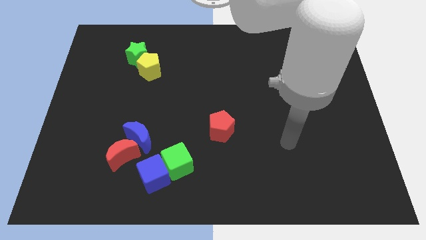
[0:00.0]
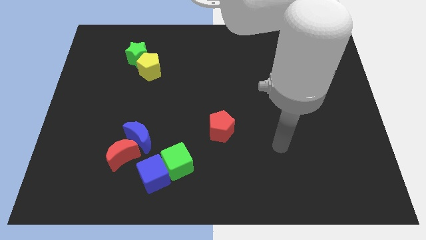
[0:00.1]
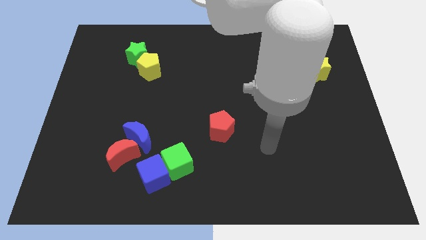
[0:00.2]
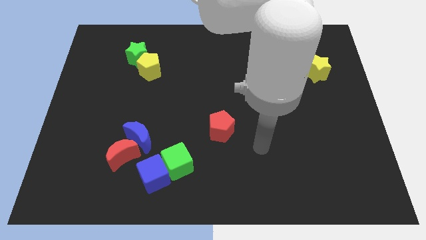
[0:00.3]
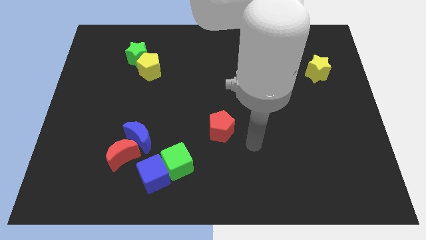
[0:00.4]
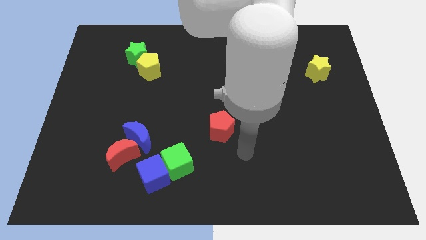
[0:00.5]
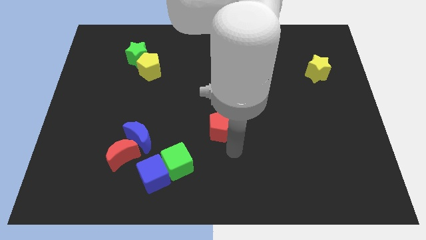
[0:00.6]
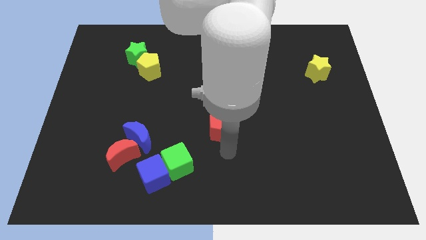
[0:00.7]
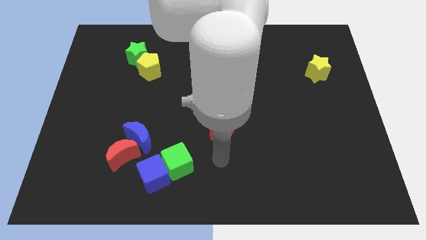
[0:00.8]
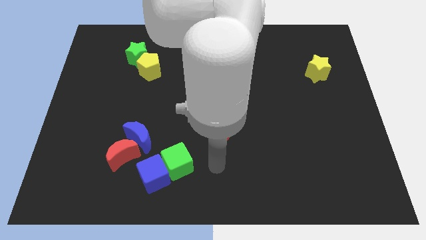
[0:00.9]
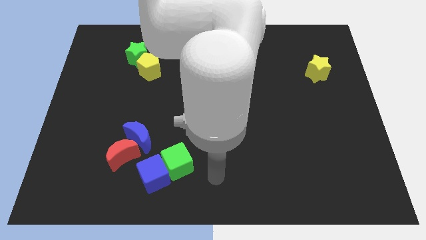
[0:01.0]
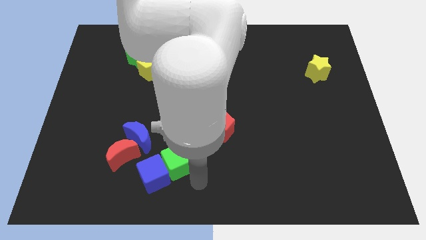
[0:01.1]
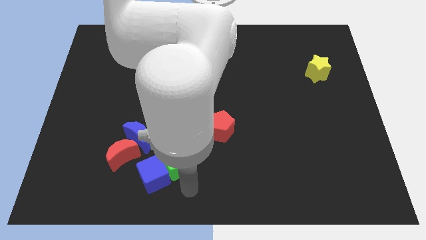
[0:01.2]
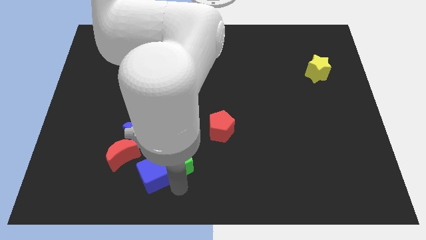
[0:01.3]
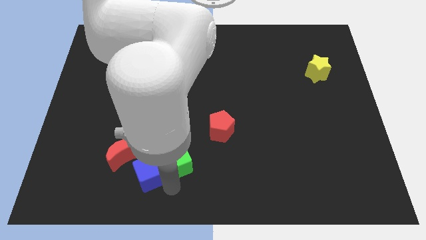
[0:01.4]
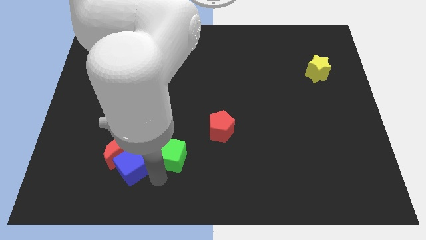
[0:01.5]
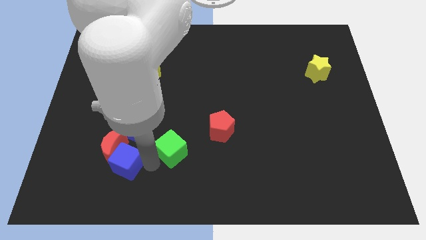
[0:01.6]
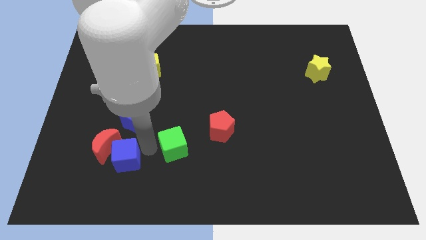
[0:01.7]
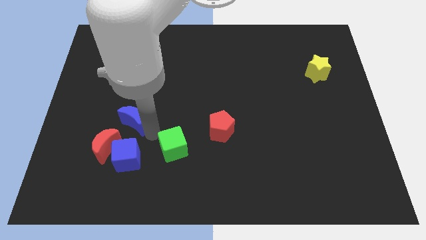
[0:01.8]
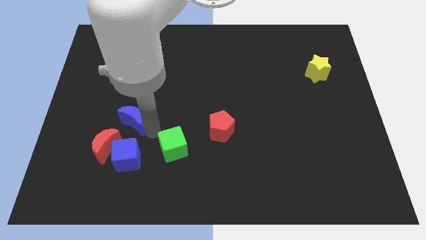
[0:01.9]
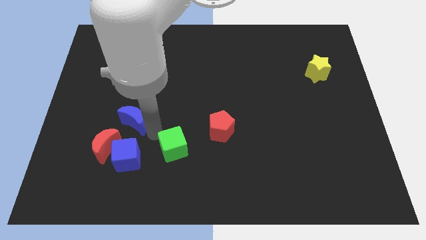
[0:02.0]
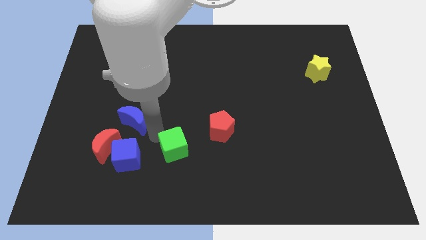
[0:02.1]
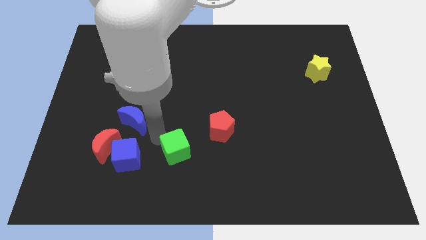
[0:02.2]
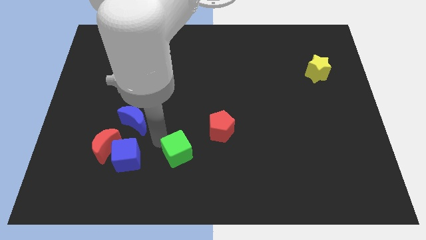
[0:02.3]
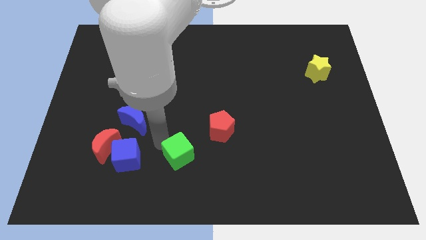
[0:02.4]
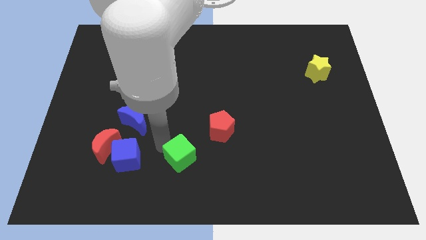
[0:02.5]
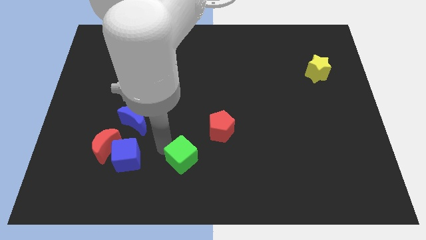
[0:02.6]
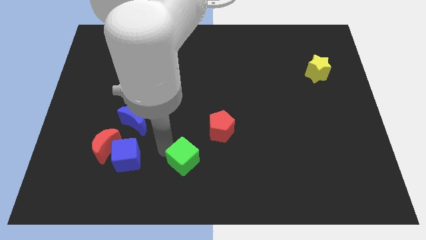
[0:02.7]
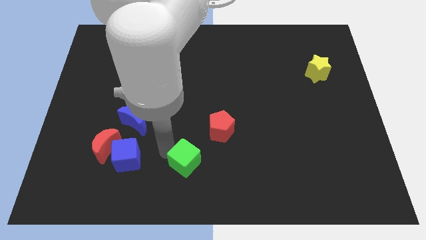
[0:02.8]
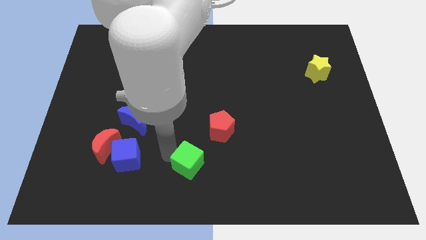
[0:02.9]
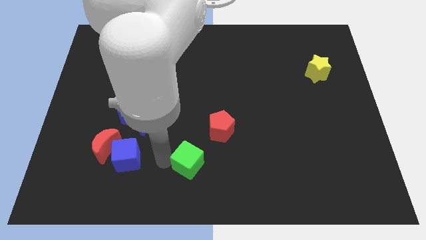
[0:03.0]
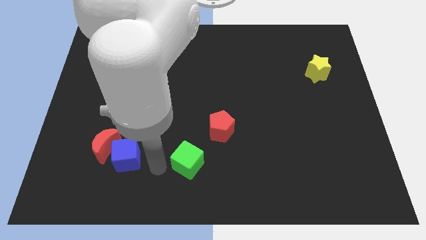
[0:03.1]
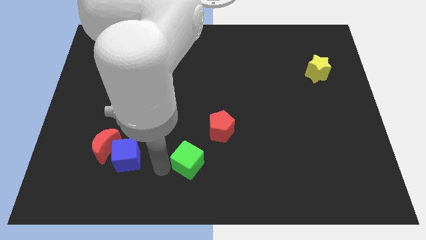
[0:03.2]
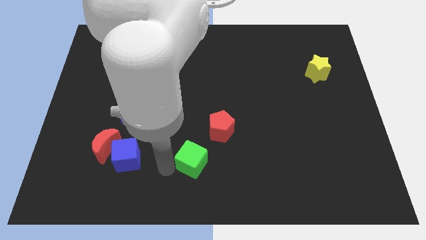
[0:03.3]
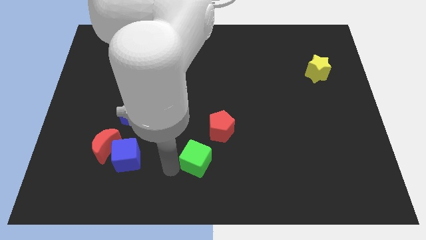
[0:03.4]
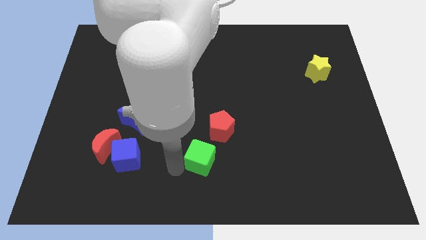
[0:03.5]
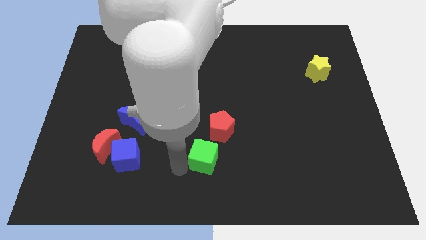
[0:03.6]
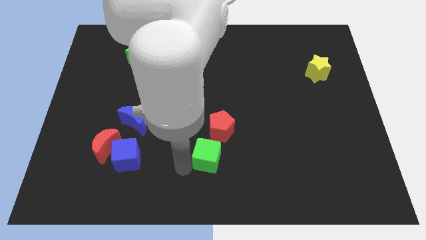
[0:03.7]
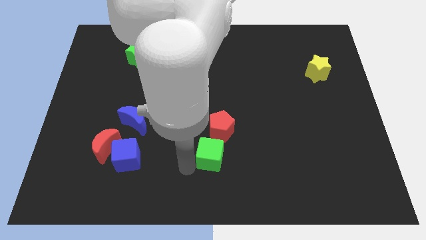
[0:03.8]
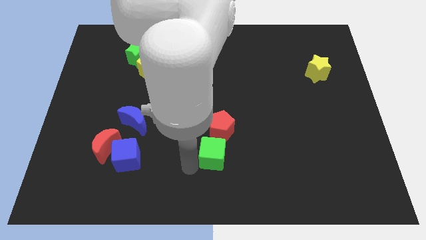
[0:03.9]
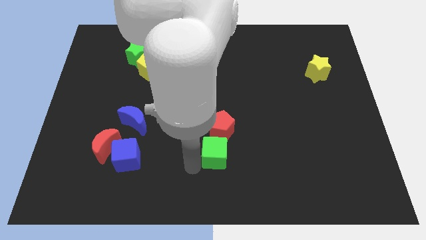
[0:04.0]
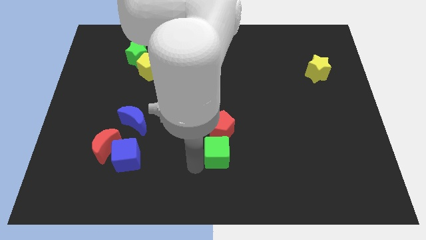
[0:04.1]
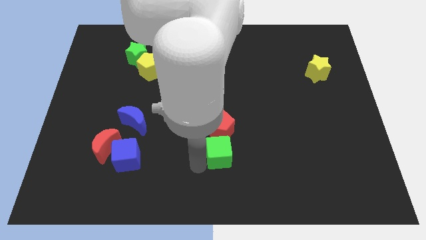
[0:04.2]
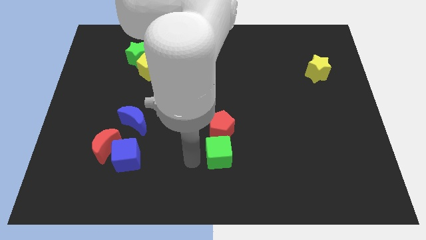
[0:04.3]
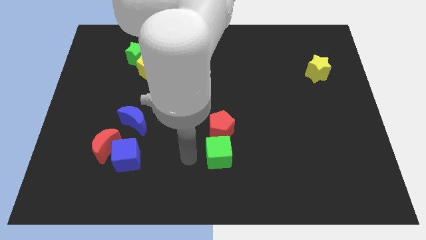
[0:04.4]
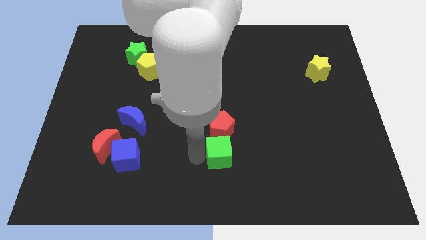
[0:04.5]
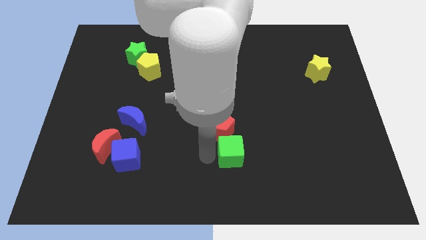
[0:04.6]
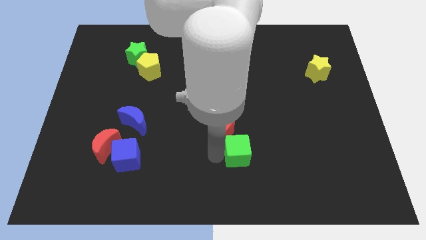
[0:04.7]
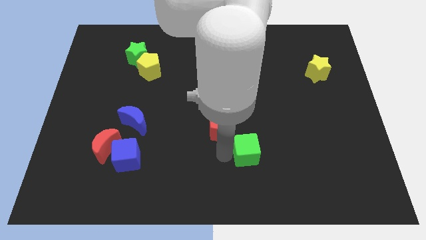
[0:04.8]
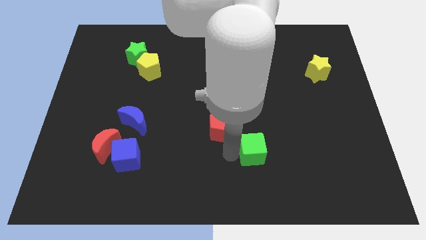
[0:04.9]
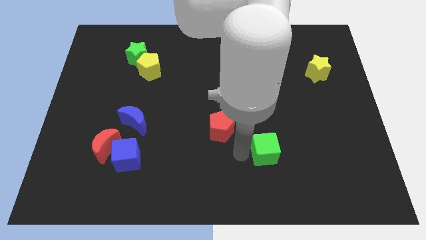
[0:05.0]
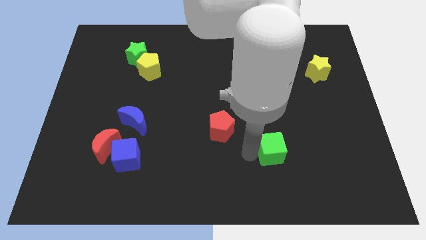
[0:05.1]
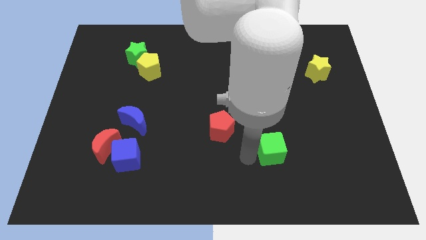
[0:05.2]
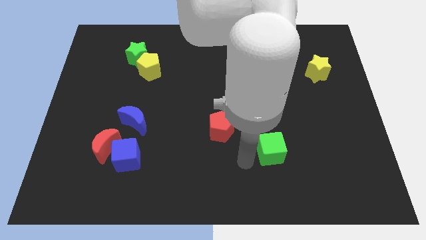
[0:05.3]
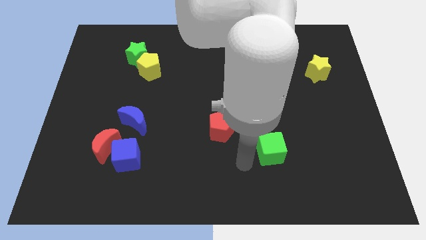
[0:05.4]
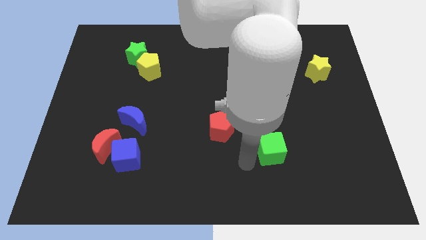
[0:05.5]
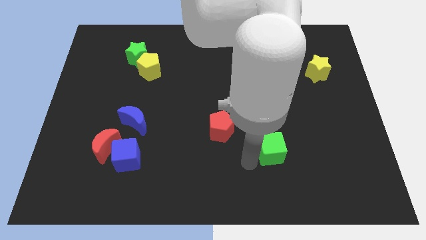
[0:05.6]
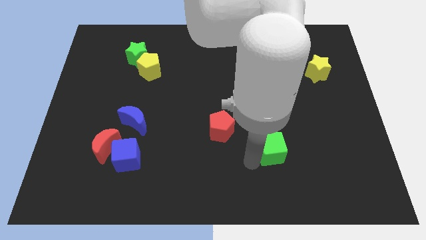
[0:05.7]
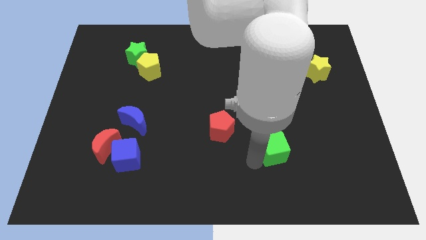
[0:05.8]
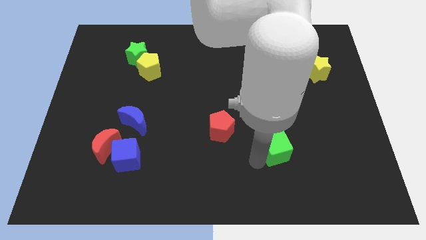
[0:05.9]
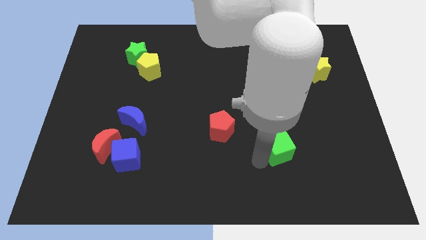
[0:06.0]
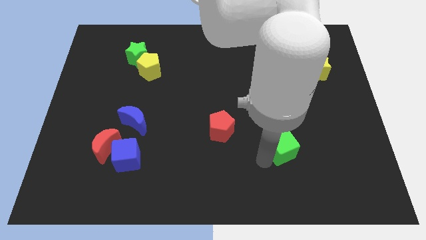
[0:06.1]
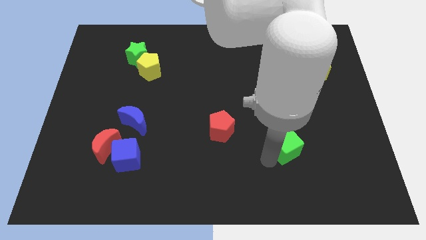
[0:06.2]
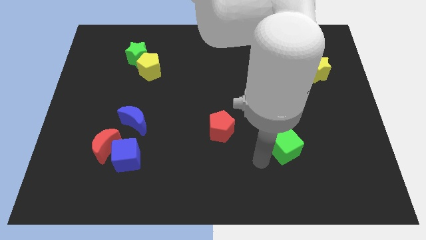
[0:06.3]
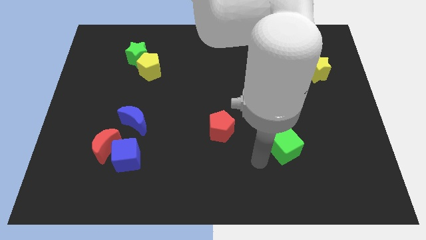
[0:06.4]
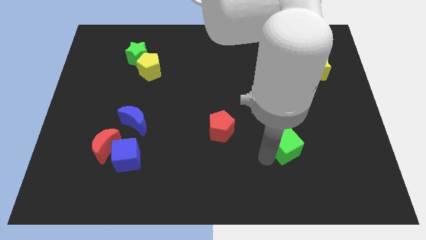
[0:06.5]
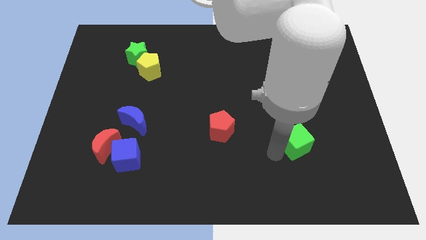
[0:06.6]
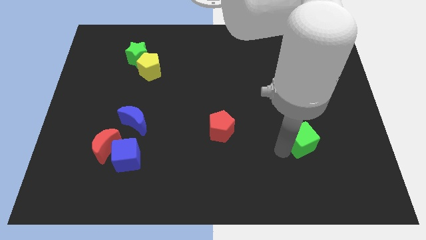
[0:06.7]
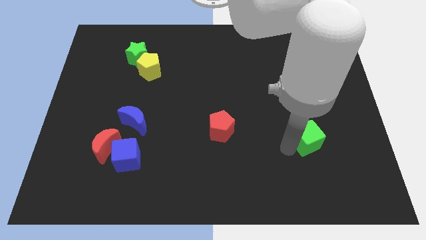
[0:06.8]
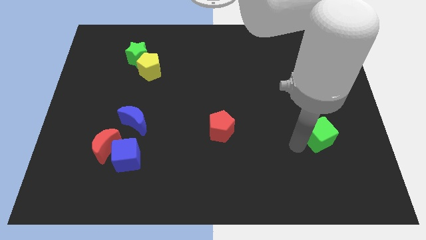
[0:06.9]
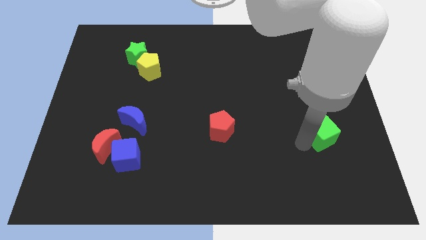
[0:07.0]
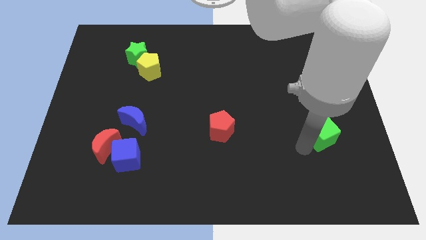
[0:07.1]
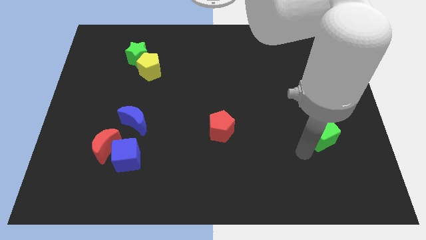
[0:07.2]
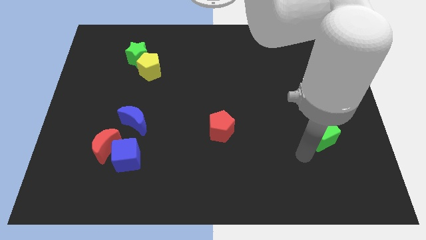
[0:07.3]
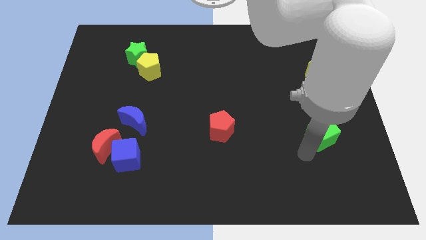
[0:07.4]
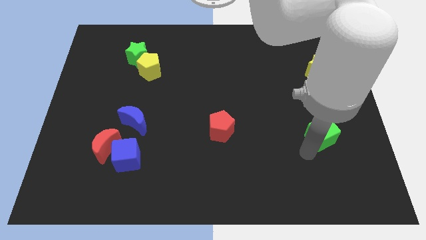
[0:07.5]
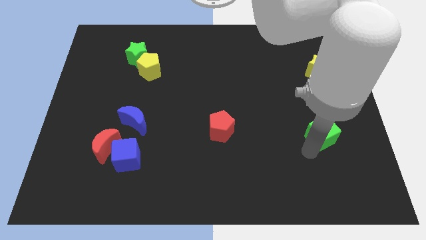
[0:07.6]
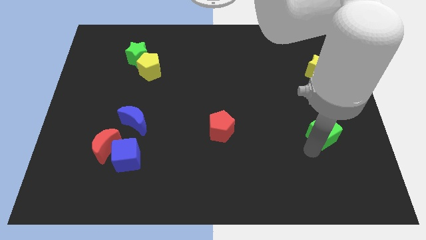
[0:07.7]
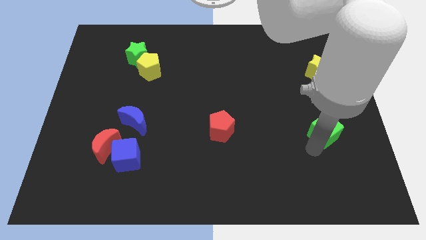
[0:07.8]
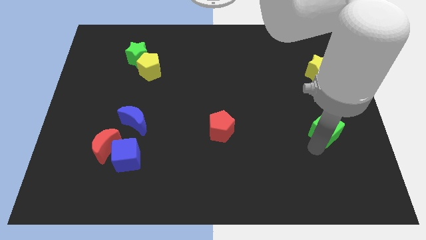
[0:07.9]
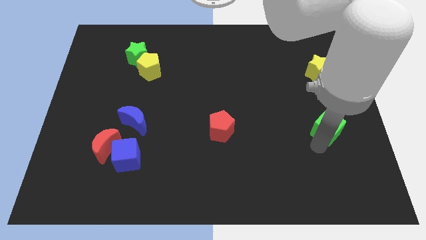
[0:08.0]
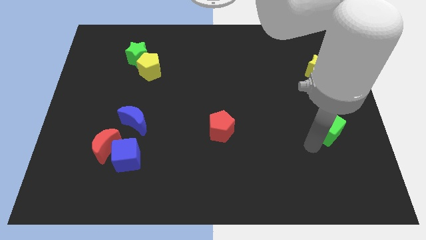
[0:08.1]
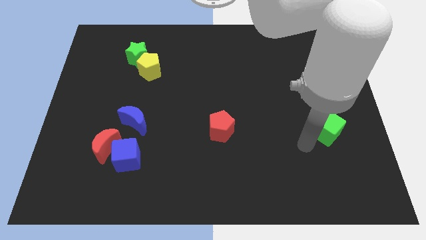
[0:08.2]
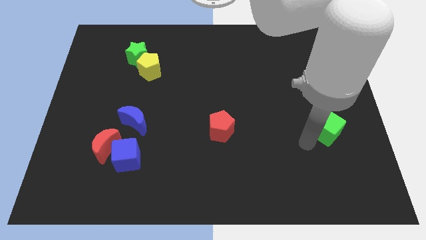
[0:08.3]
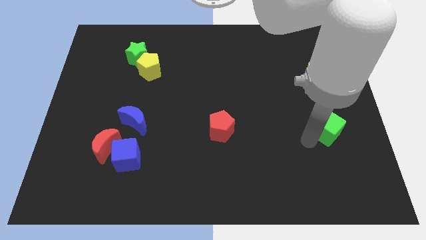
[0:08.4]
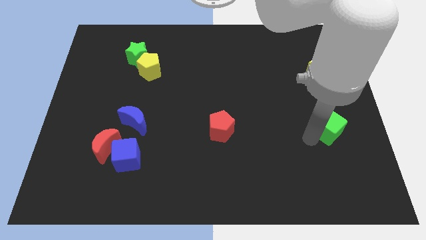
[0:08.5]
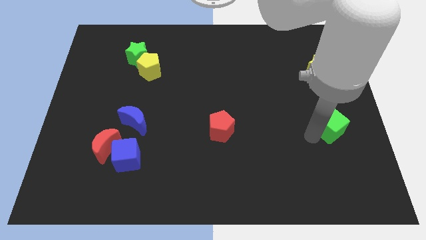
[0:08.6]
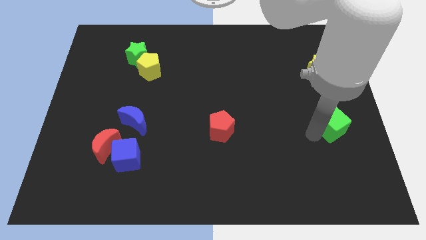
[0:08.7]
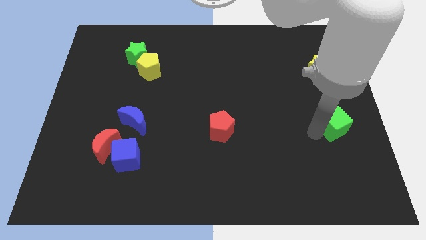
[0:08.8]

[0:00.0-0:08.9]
push the green cube to the right side
